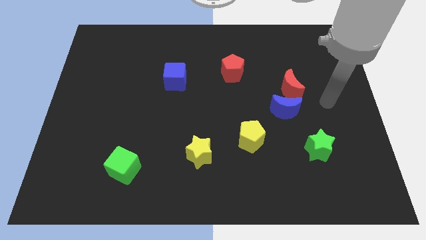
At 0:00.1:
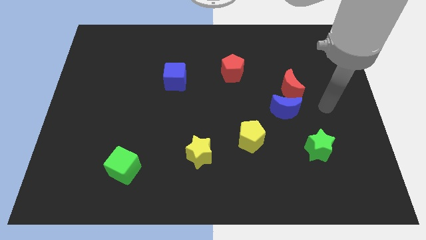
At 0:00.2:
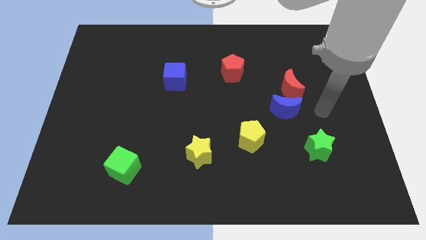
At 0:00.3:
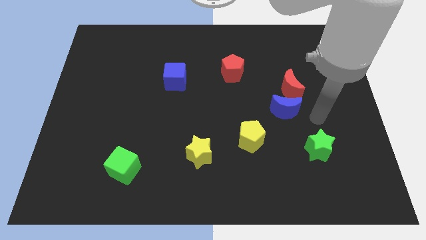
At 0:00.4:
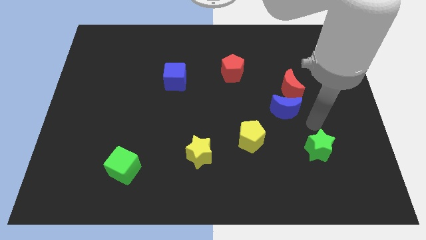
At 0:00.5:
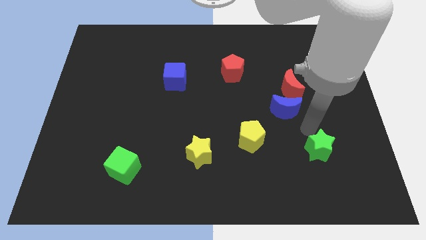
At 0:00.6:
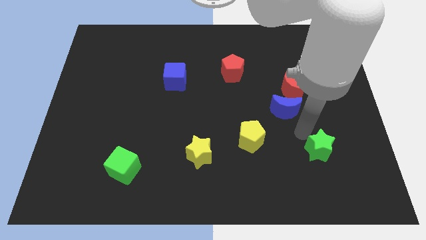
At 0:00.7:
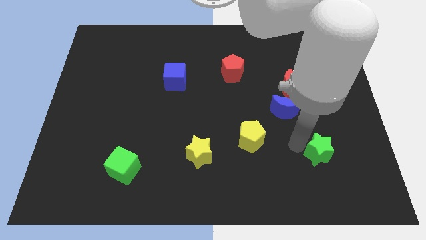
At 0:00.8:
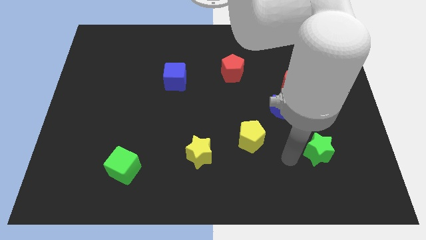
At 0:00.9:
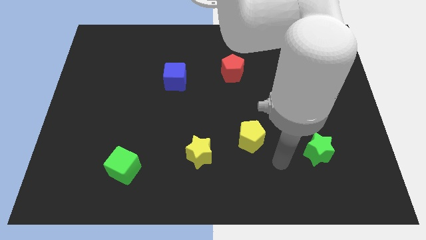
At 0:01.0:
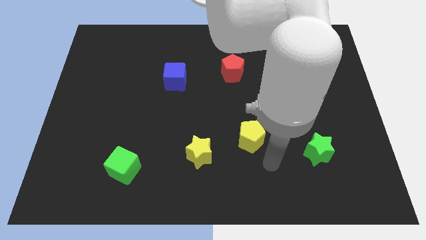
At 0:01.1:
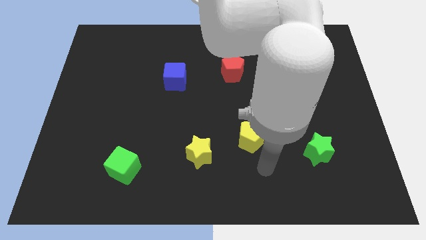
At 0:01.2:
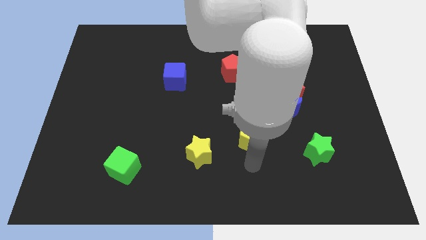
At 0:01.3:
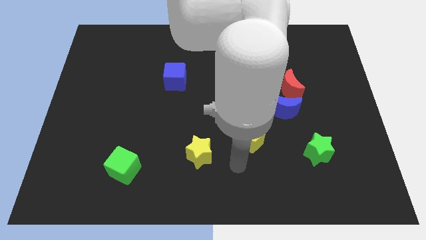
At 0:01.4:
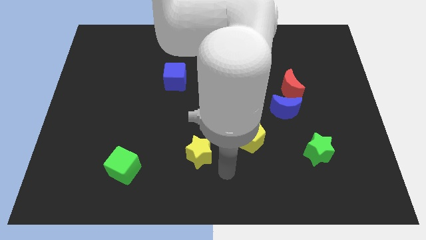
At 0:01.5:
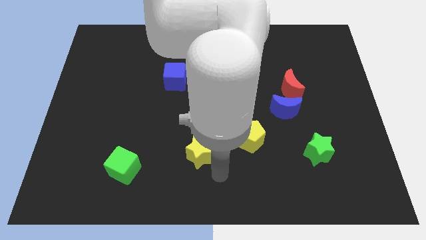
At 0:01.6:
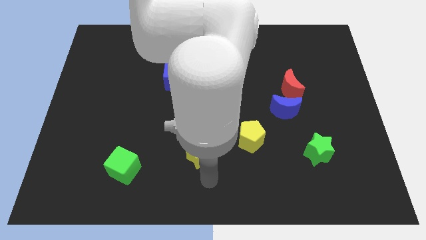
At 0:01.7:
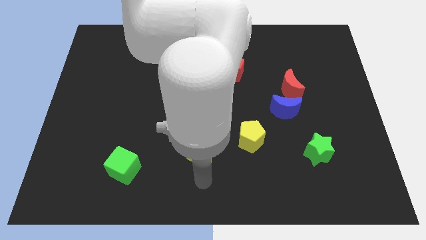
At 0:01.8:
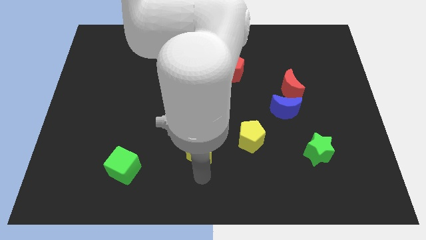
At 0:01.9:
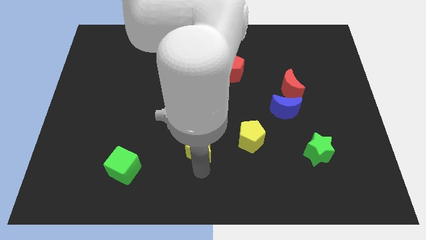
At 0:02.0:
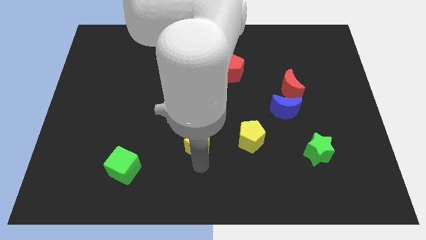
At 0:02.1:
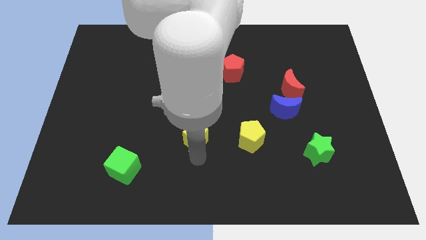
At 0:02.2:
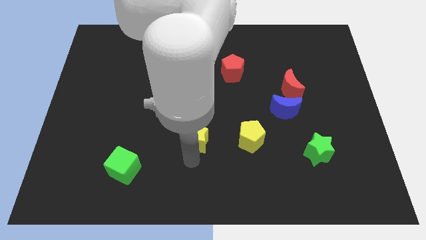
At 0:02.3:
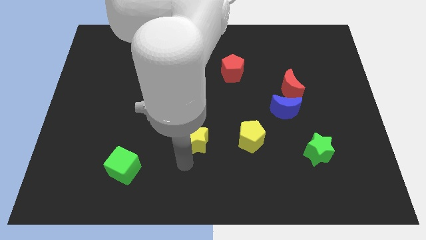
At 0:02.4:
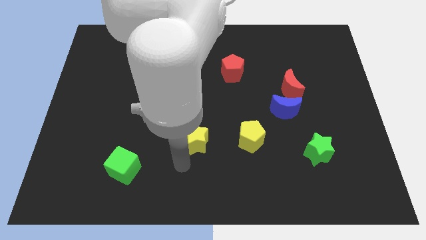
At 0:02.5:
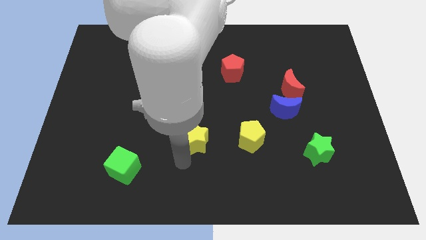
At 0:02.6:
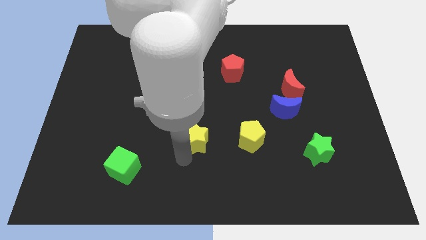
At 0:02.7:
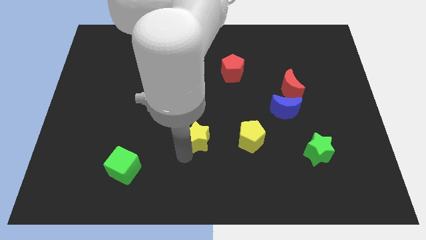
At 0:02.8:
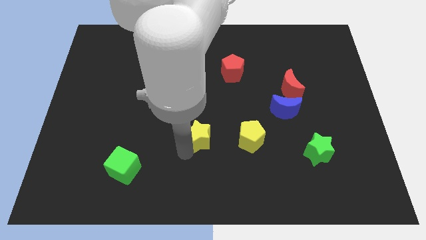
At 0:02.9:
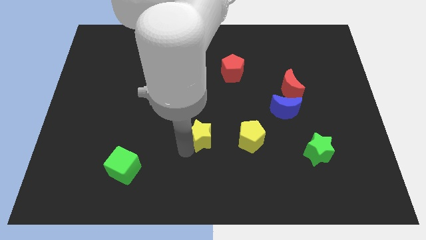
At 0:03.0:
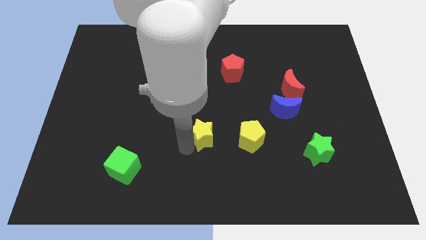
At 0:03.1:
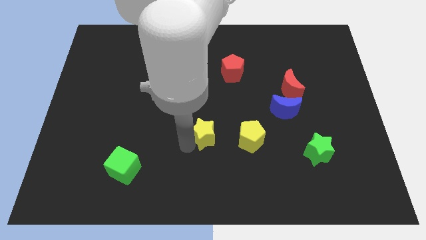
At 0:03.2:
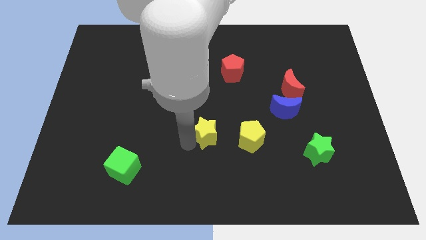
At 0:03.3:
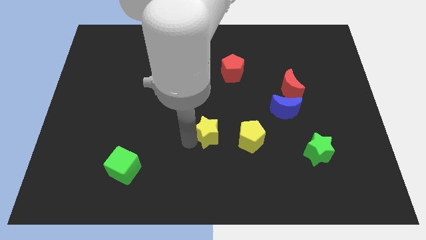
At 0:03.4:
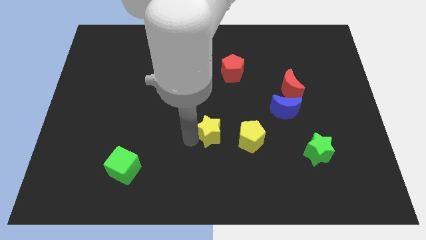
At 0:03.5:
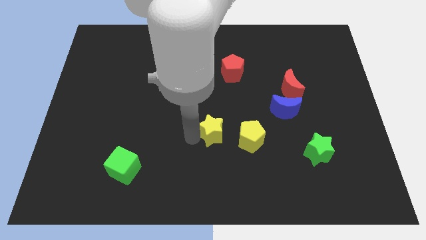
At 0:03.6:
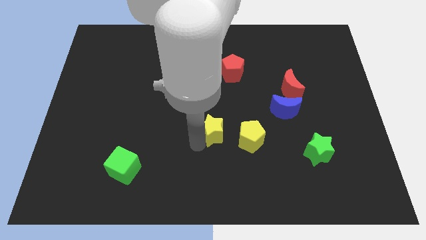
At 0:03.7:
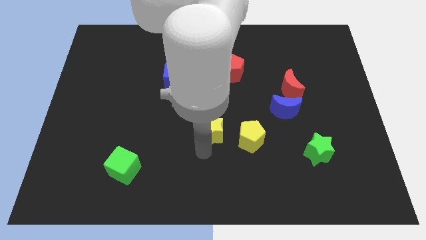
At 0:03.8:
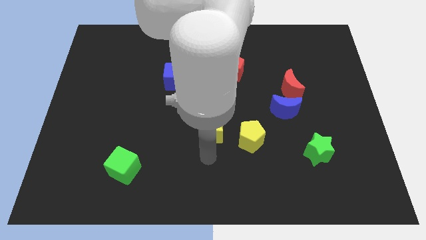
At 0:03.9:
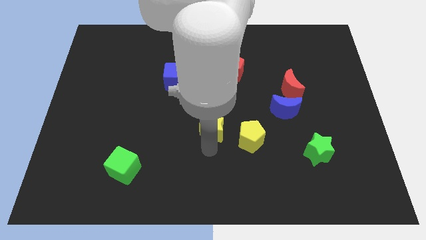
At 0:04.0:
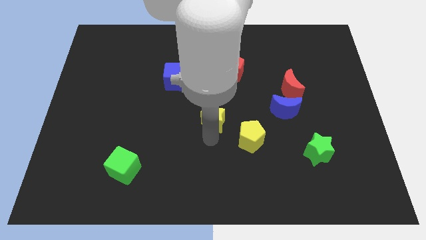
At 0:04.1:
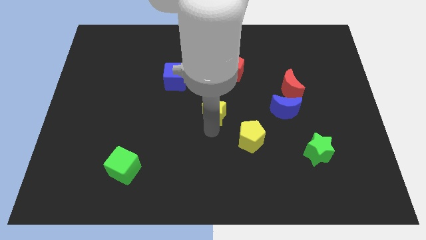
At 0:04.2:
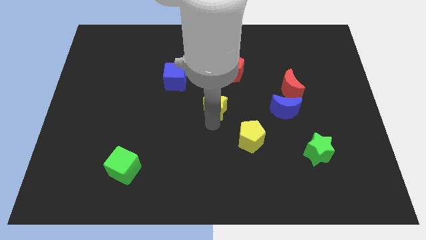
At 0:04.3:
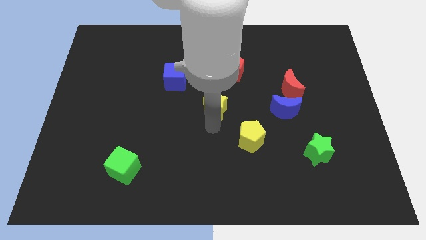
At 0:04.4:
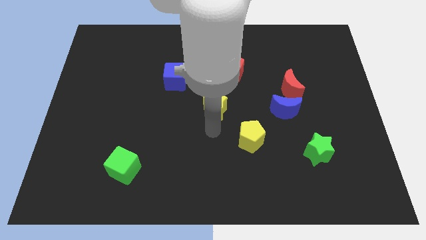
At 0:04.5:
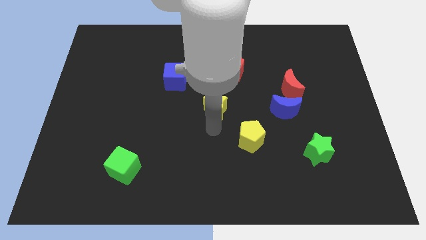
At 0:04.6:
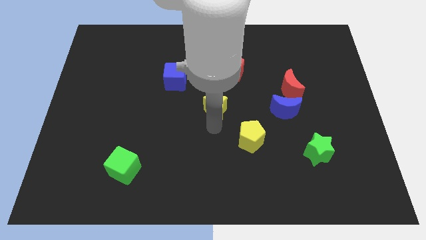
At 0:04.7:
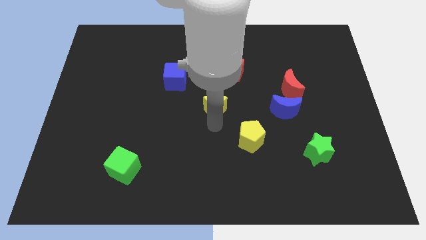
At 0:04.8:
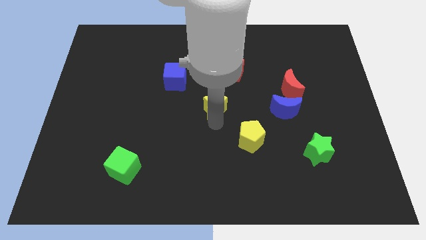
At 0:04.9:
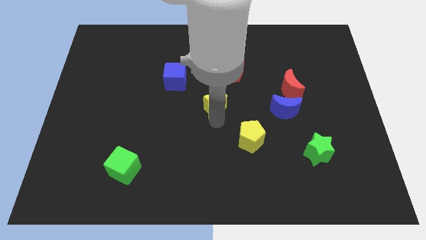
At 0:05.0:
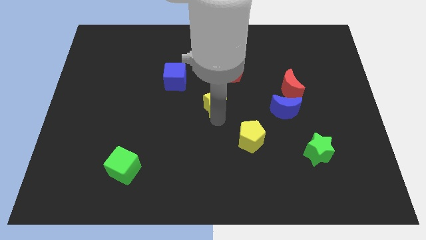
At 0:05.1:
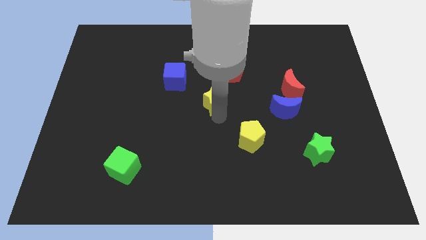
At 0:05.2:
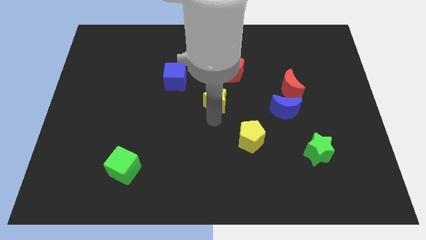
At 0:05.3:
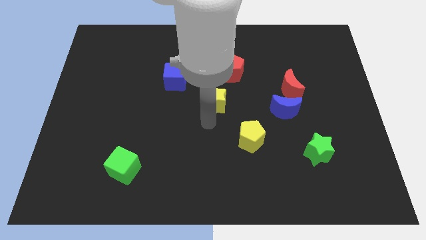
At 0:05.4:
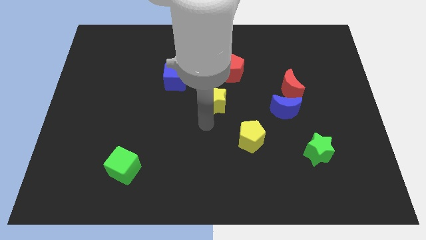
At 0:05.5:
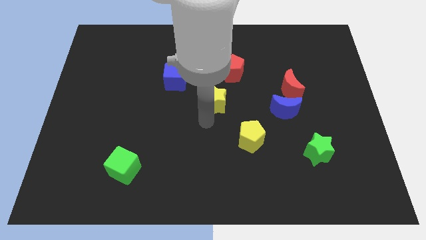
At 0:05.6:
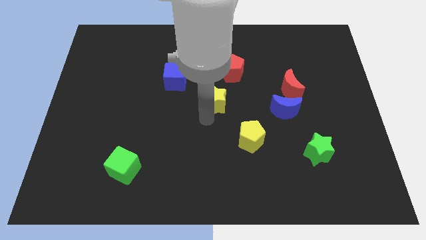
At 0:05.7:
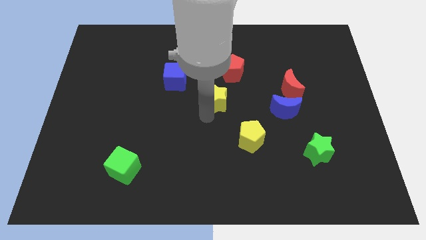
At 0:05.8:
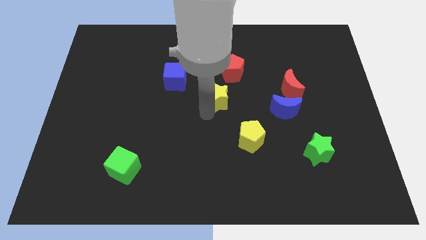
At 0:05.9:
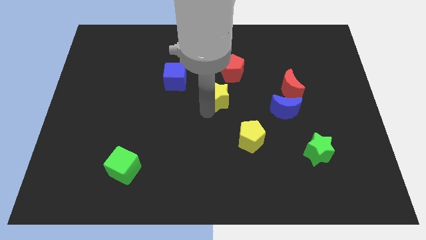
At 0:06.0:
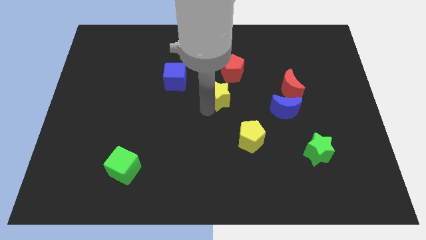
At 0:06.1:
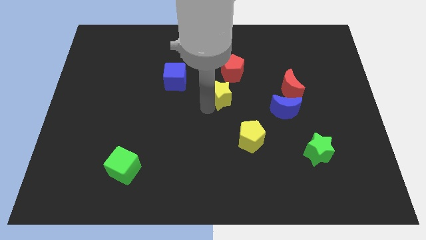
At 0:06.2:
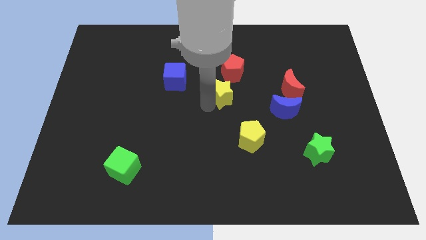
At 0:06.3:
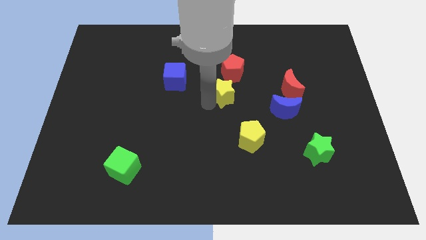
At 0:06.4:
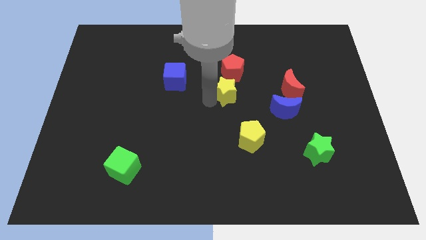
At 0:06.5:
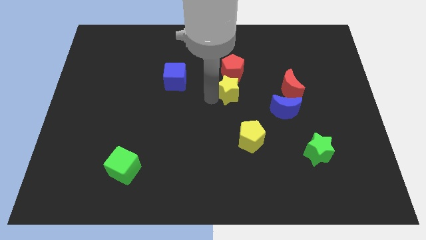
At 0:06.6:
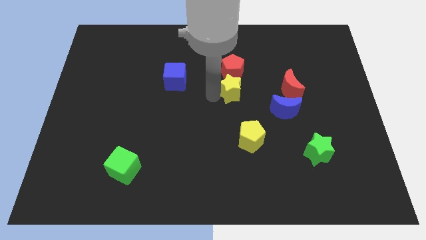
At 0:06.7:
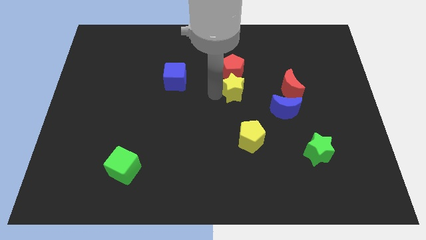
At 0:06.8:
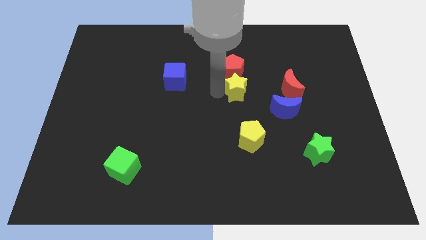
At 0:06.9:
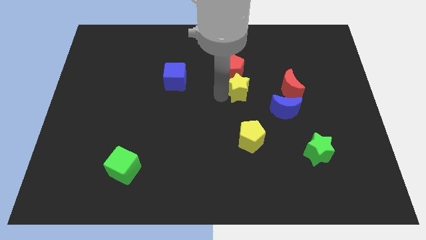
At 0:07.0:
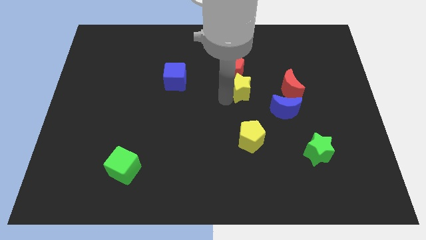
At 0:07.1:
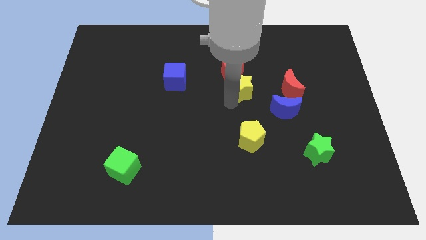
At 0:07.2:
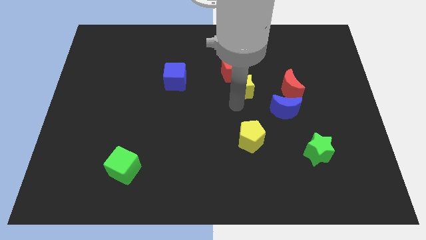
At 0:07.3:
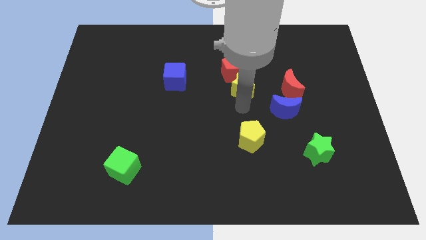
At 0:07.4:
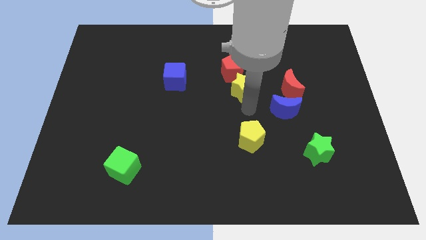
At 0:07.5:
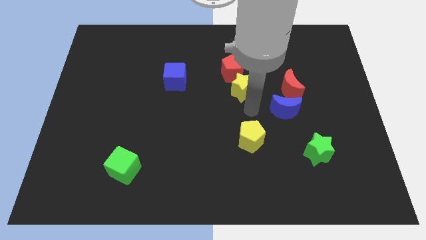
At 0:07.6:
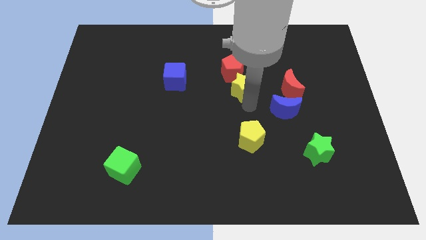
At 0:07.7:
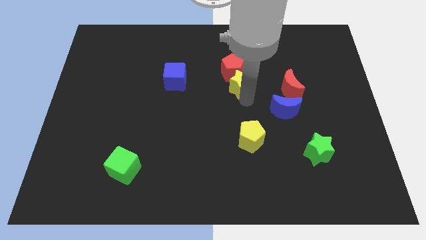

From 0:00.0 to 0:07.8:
put the yellow star close to the red pentagon
